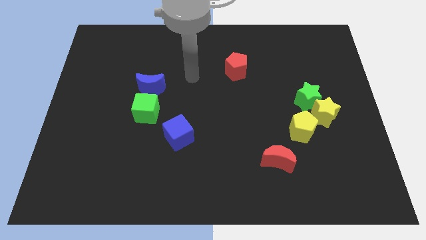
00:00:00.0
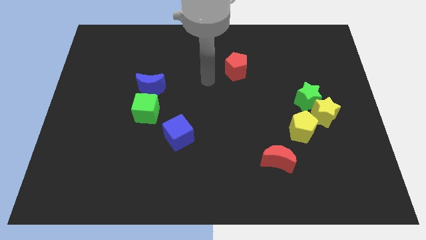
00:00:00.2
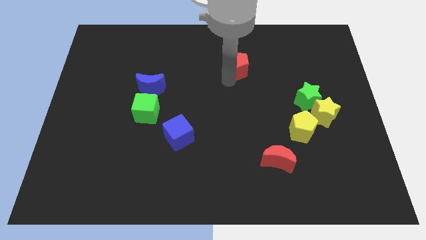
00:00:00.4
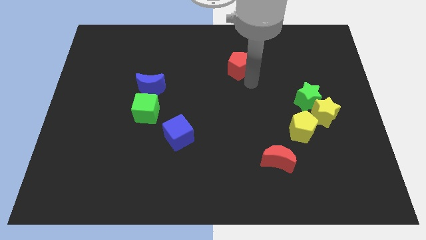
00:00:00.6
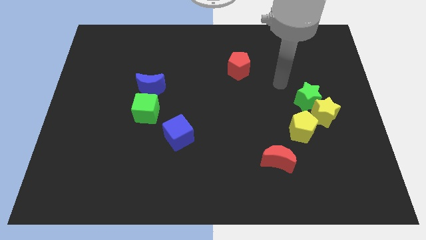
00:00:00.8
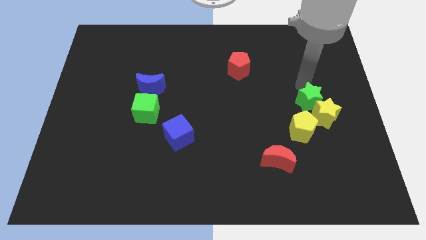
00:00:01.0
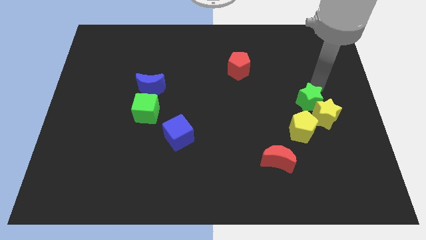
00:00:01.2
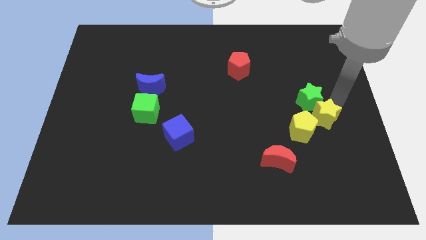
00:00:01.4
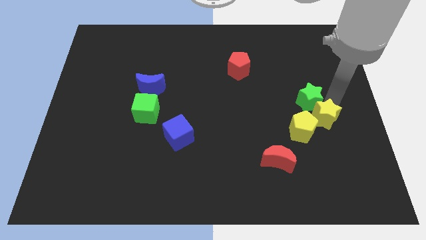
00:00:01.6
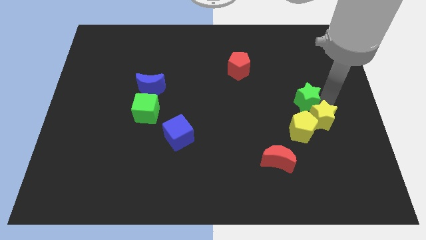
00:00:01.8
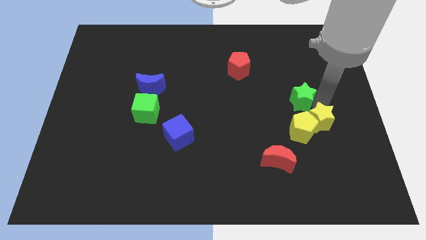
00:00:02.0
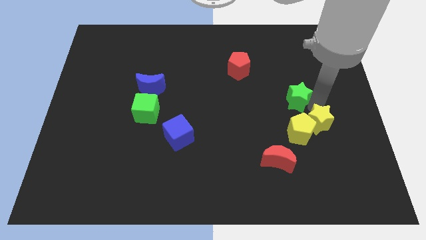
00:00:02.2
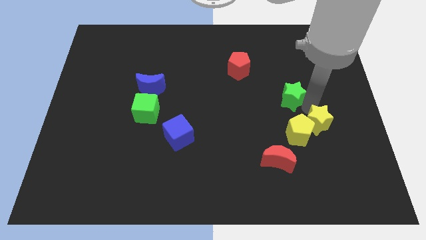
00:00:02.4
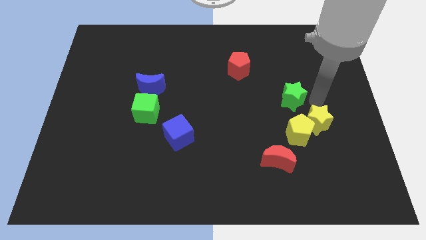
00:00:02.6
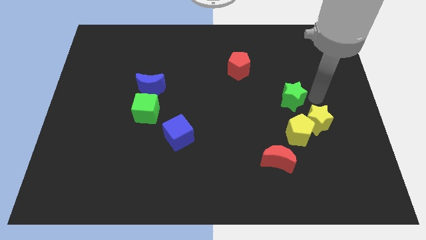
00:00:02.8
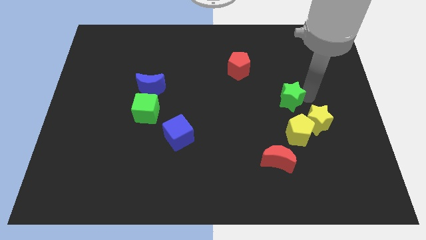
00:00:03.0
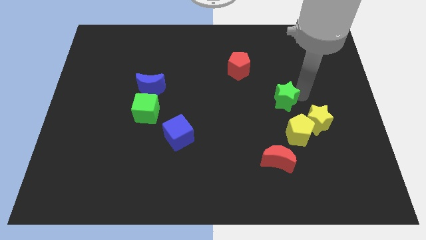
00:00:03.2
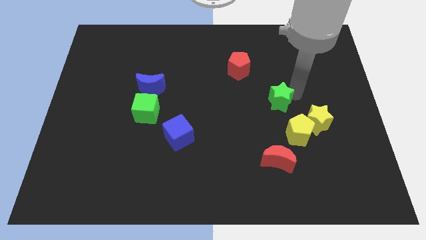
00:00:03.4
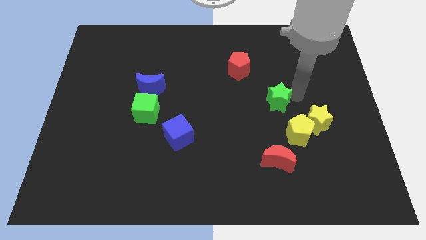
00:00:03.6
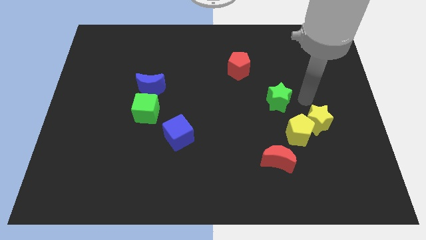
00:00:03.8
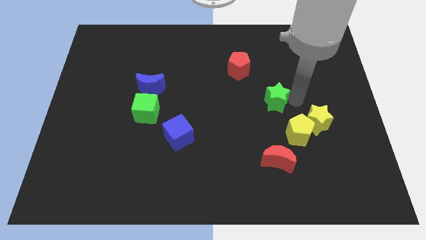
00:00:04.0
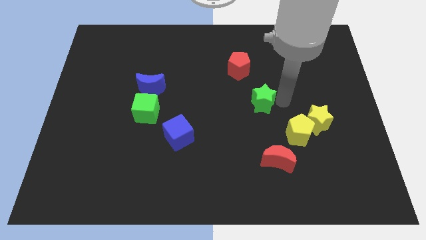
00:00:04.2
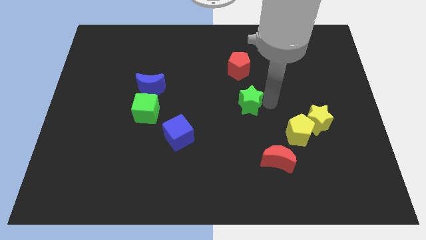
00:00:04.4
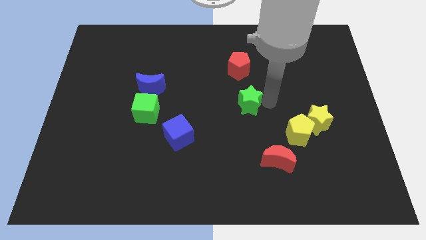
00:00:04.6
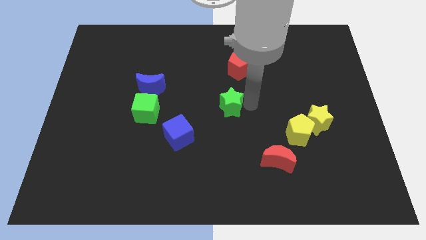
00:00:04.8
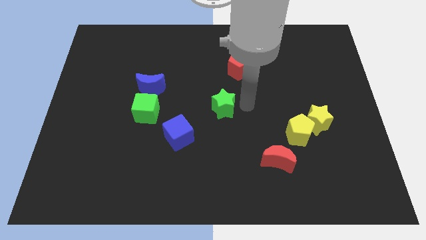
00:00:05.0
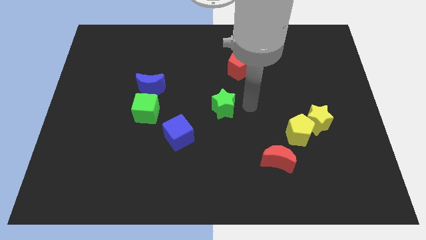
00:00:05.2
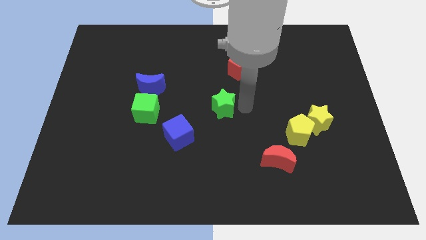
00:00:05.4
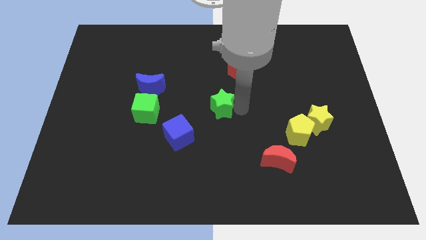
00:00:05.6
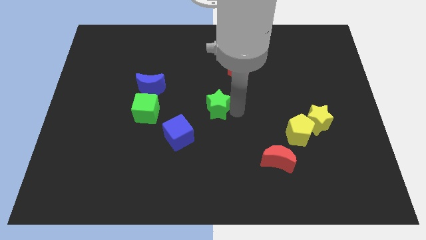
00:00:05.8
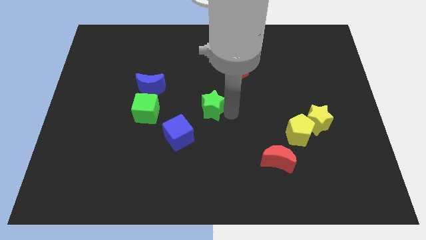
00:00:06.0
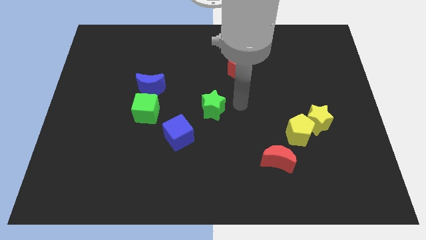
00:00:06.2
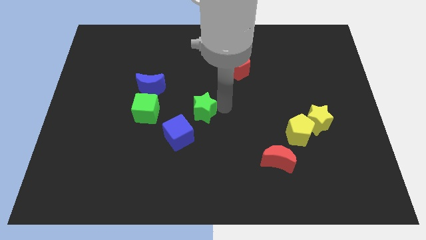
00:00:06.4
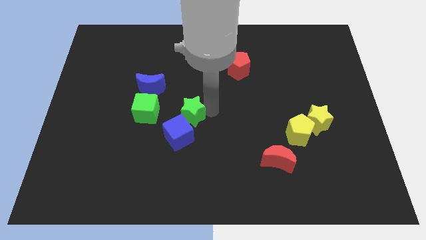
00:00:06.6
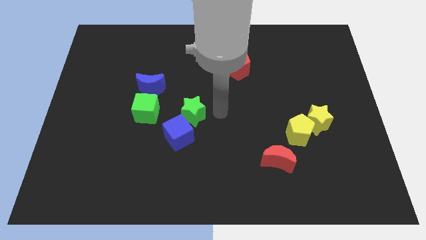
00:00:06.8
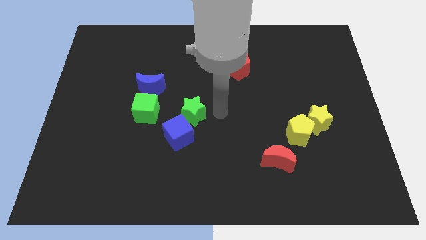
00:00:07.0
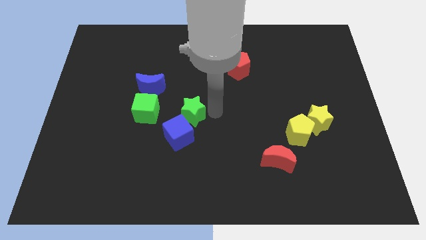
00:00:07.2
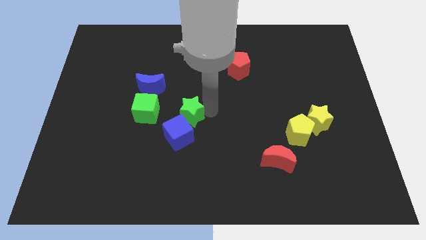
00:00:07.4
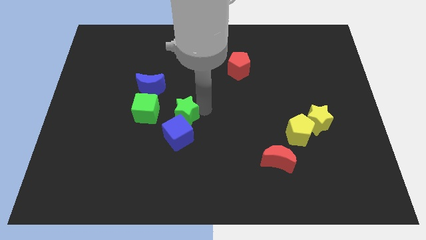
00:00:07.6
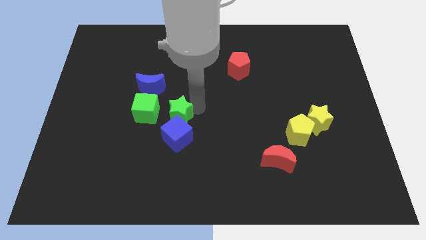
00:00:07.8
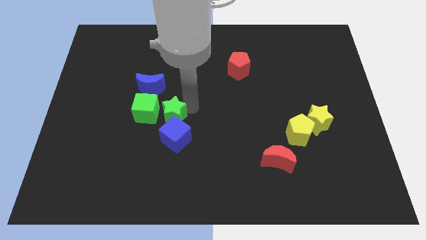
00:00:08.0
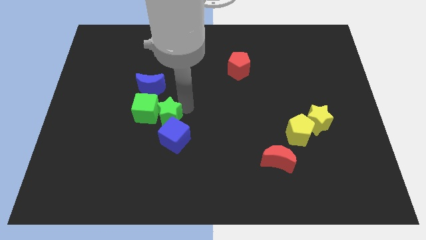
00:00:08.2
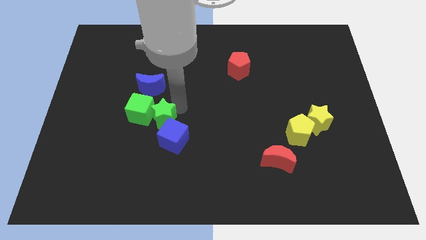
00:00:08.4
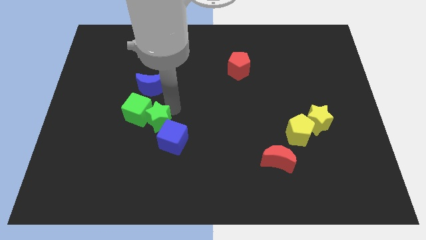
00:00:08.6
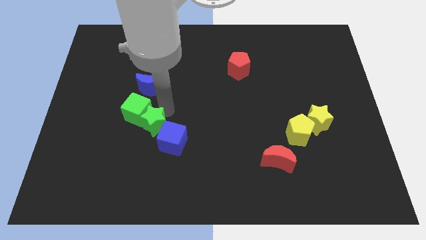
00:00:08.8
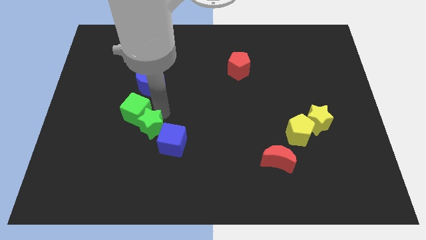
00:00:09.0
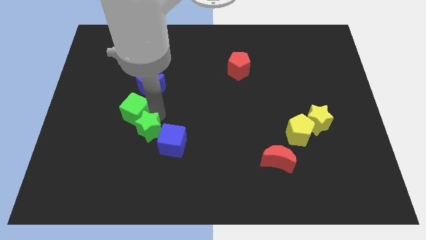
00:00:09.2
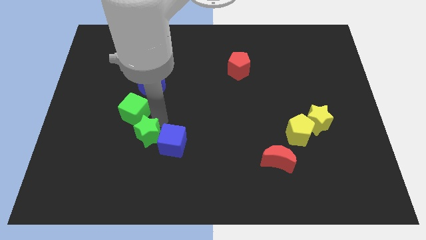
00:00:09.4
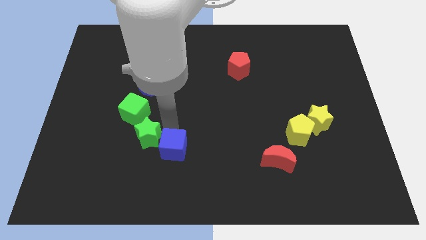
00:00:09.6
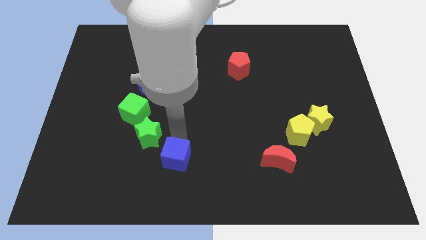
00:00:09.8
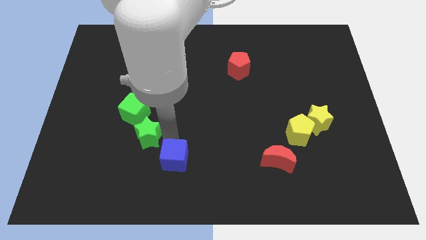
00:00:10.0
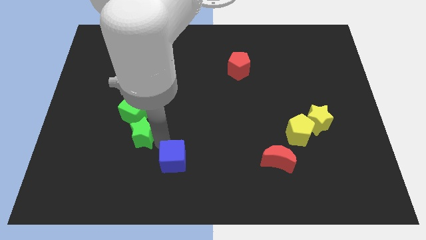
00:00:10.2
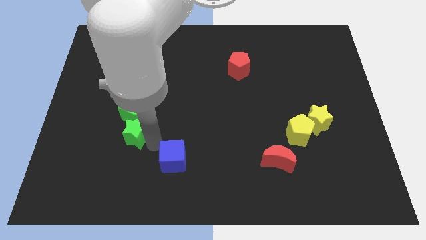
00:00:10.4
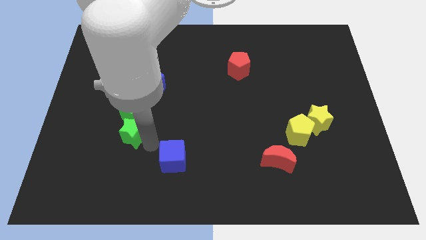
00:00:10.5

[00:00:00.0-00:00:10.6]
put the green star to the bottom left of the green cube

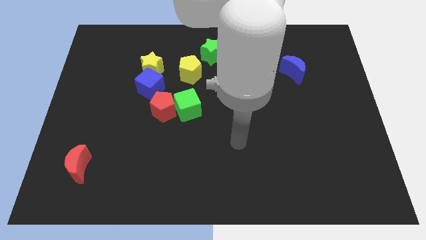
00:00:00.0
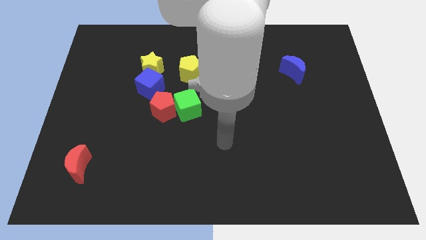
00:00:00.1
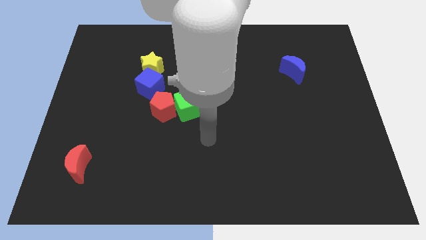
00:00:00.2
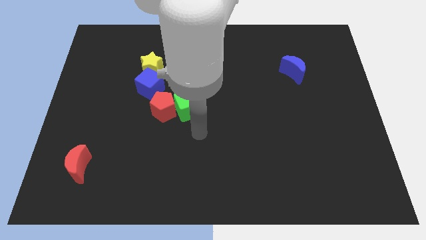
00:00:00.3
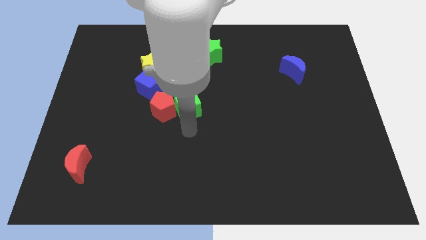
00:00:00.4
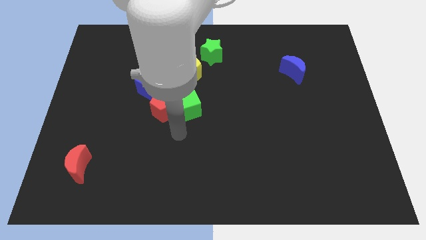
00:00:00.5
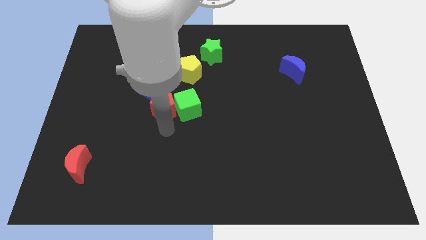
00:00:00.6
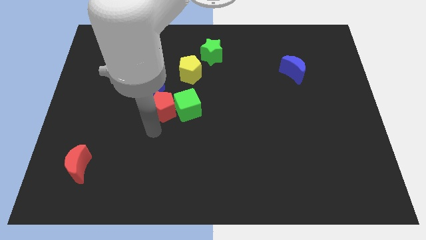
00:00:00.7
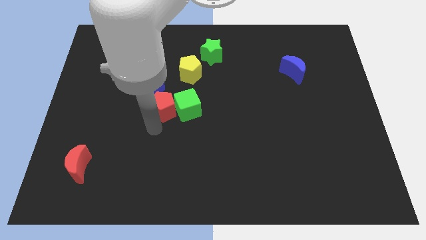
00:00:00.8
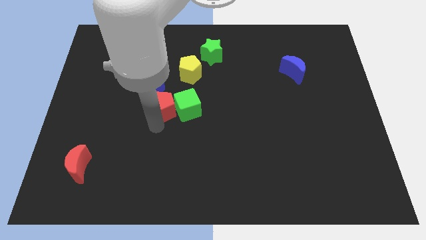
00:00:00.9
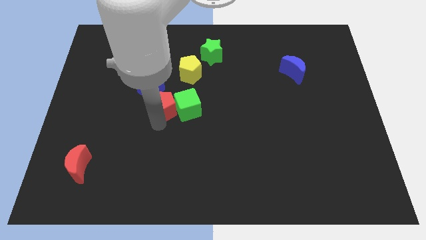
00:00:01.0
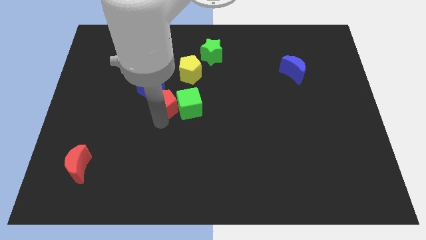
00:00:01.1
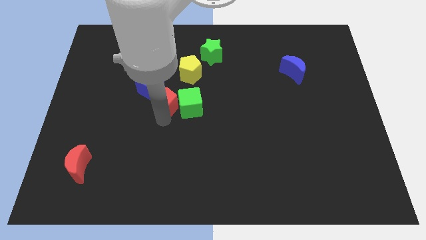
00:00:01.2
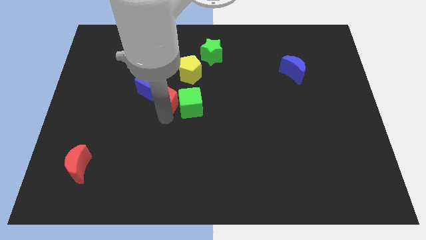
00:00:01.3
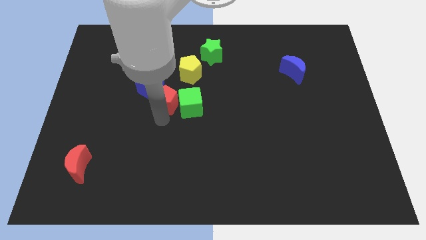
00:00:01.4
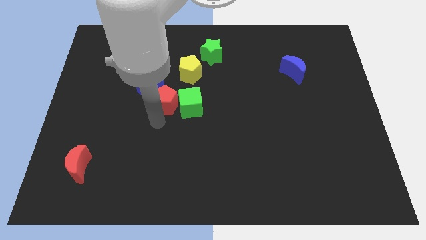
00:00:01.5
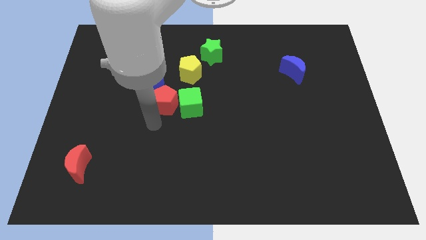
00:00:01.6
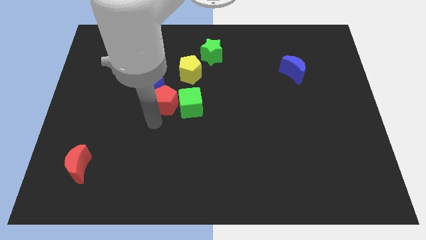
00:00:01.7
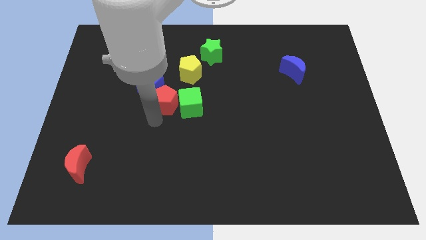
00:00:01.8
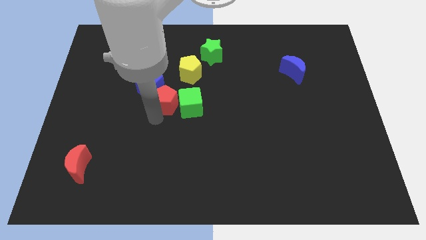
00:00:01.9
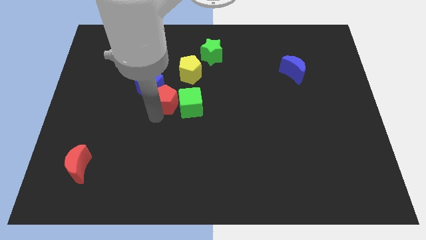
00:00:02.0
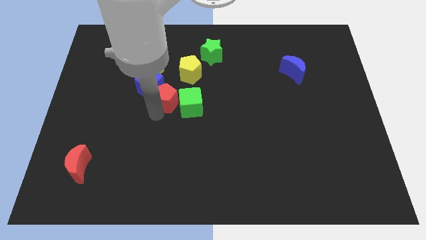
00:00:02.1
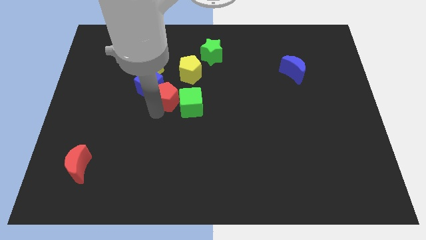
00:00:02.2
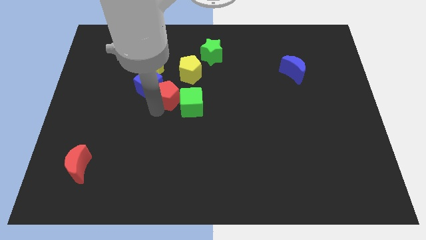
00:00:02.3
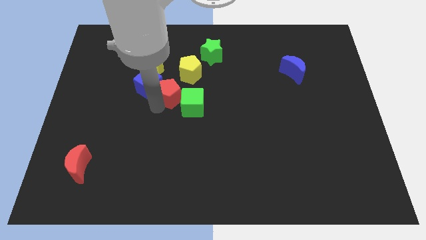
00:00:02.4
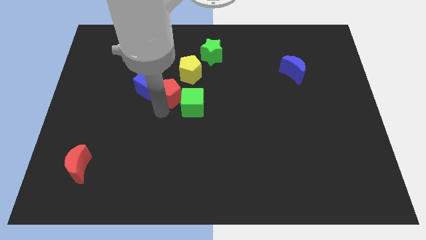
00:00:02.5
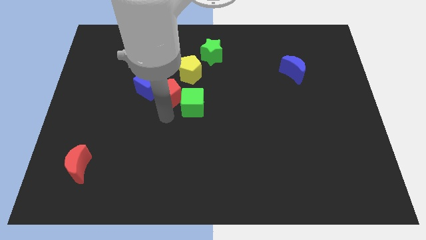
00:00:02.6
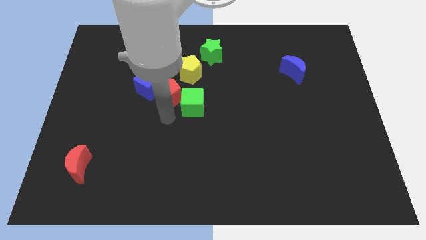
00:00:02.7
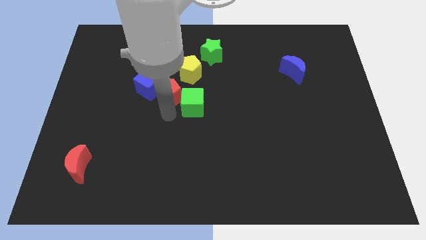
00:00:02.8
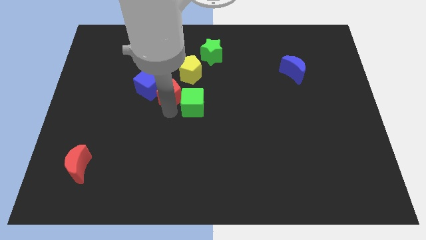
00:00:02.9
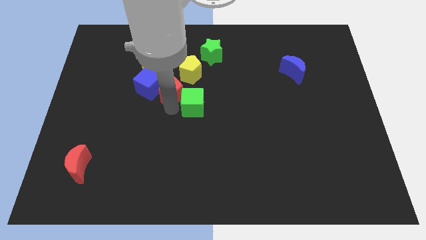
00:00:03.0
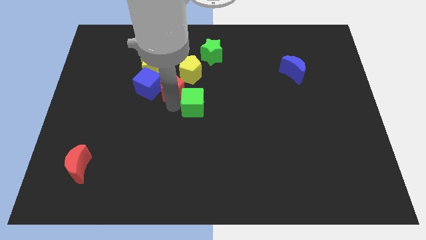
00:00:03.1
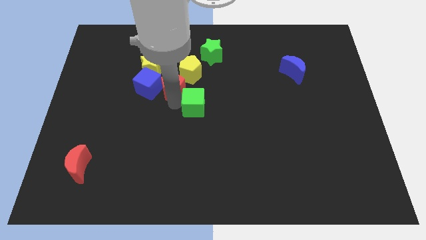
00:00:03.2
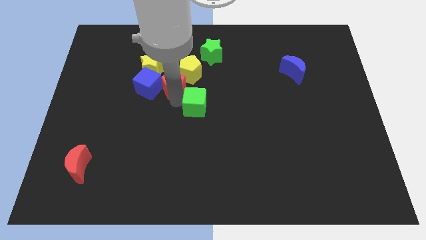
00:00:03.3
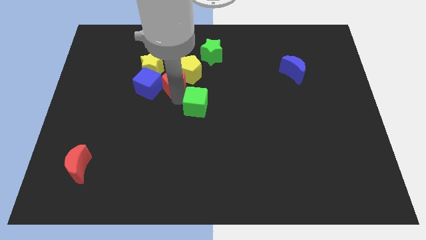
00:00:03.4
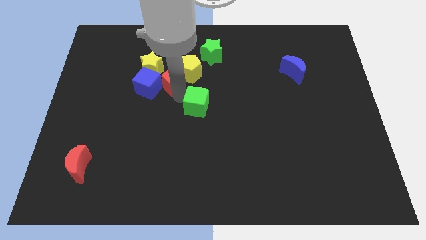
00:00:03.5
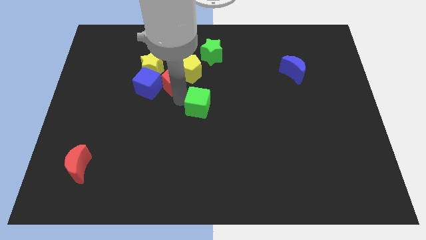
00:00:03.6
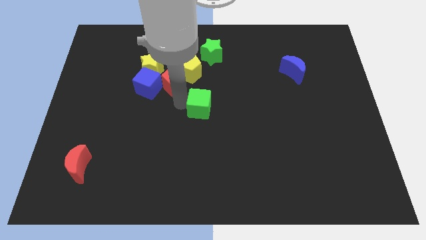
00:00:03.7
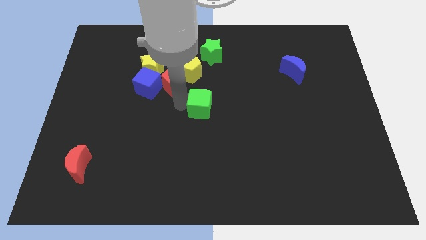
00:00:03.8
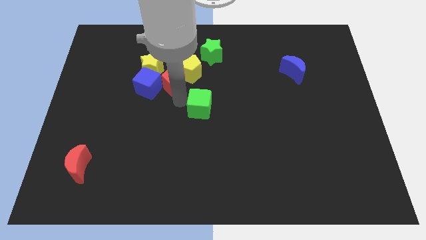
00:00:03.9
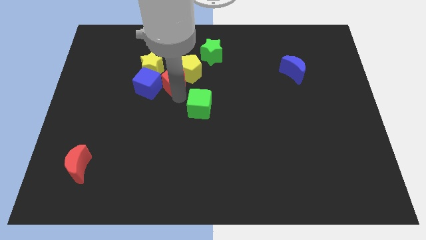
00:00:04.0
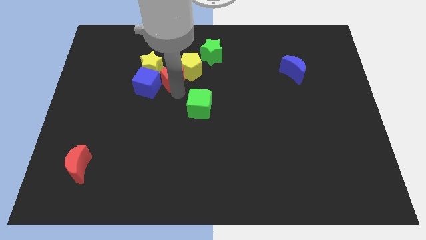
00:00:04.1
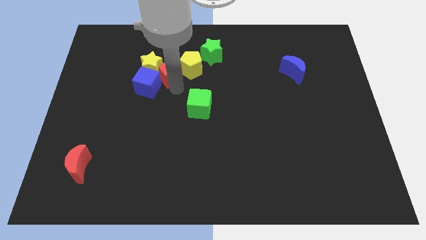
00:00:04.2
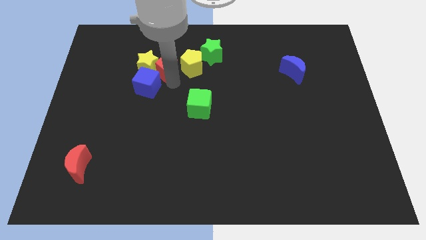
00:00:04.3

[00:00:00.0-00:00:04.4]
push the red pentagon to the top right of the yellow star
